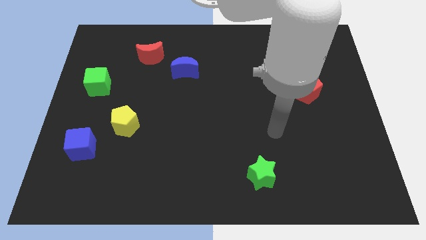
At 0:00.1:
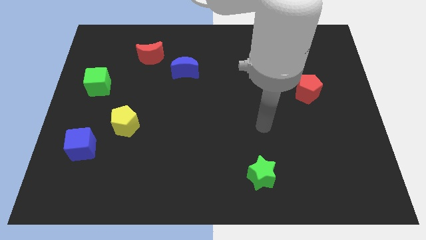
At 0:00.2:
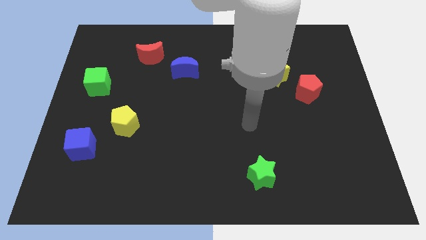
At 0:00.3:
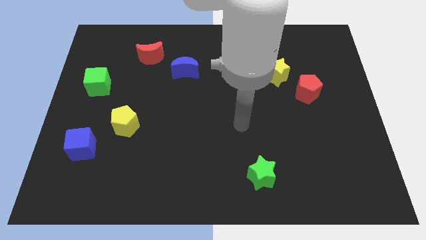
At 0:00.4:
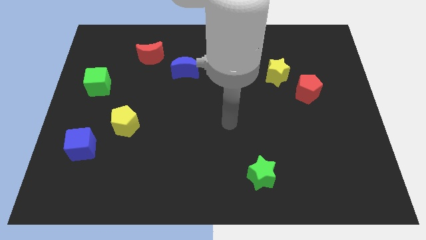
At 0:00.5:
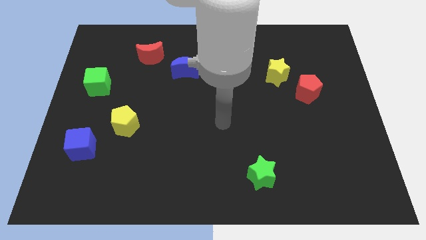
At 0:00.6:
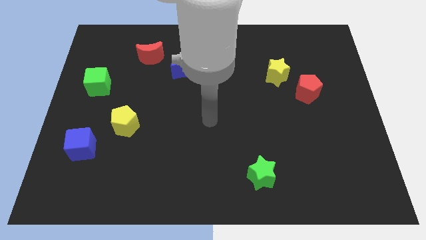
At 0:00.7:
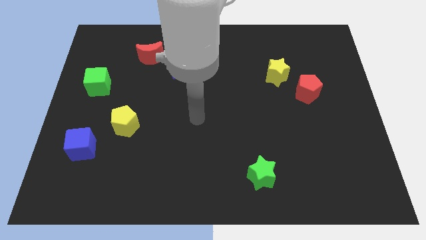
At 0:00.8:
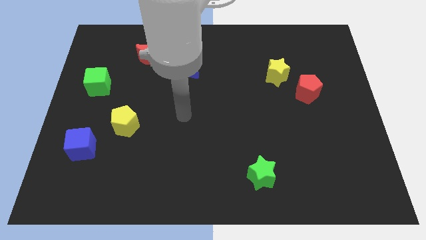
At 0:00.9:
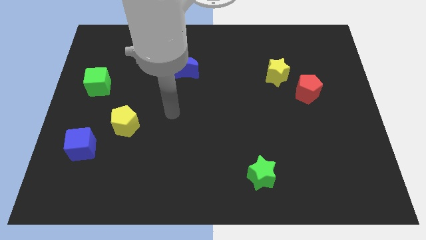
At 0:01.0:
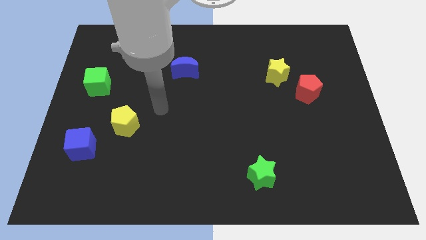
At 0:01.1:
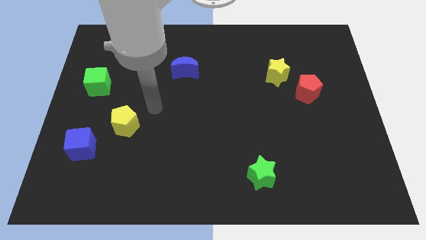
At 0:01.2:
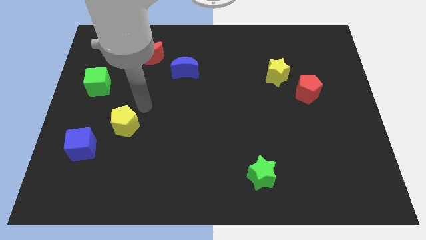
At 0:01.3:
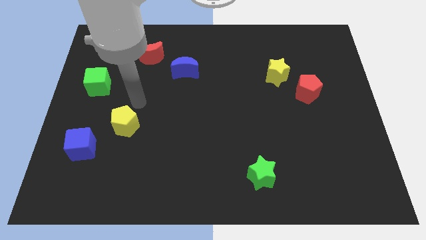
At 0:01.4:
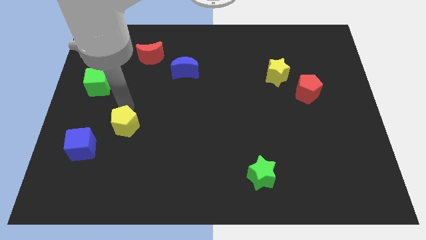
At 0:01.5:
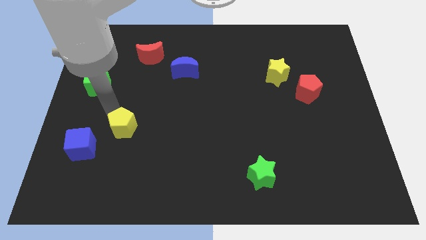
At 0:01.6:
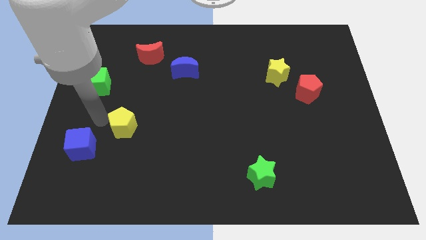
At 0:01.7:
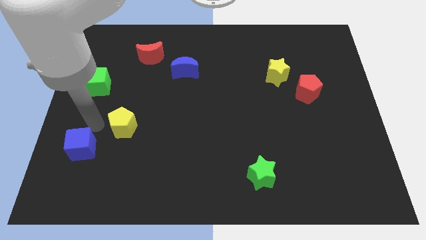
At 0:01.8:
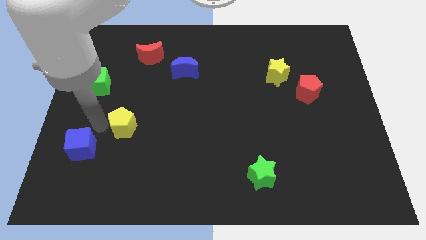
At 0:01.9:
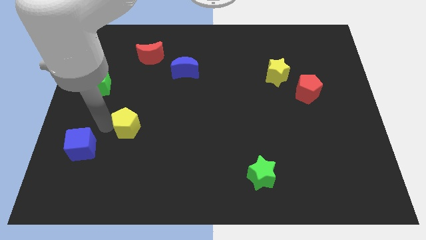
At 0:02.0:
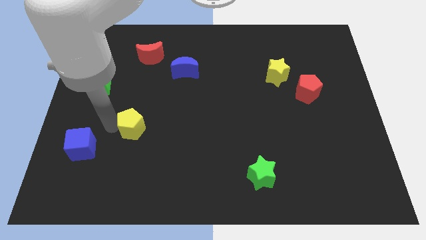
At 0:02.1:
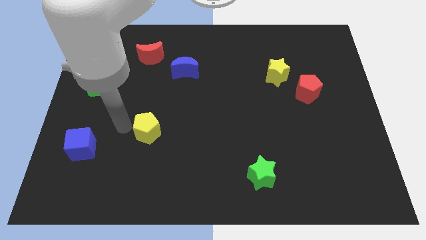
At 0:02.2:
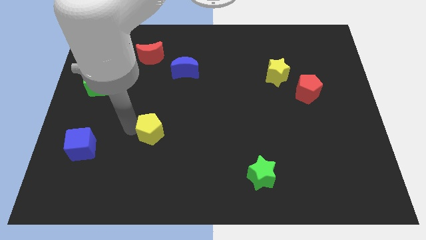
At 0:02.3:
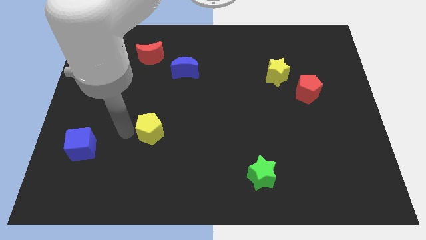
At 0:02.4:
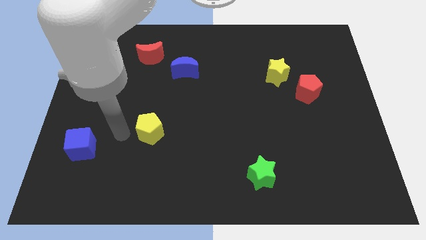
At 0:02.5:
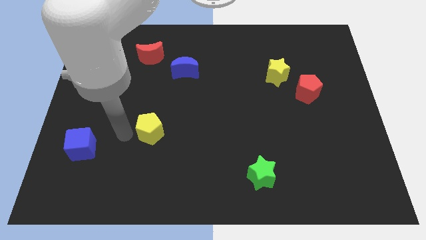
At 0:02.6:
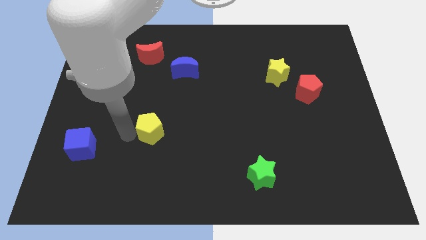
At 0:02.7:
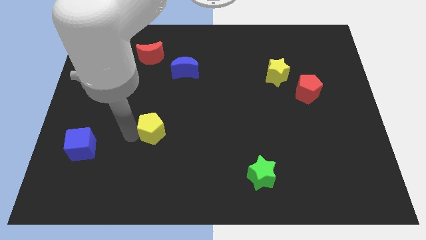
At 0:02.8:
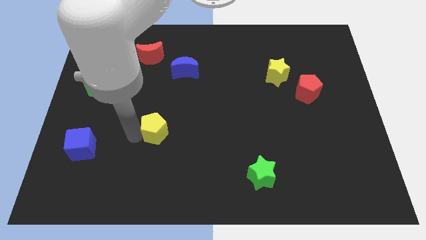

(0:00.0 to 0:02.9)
slide the yellow pentagon right a bit

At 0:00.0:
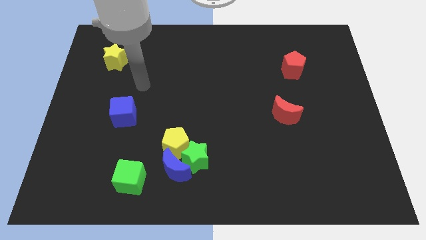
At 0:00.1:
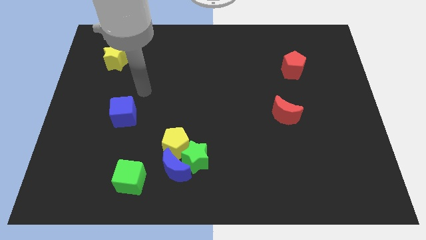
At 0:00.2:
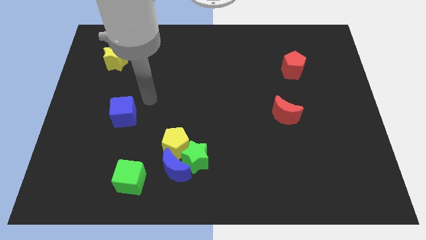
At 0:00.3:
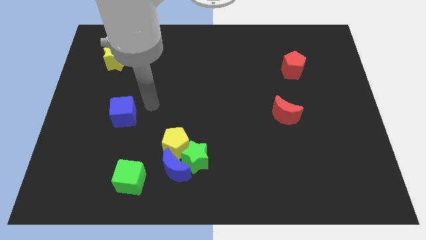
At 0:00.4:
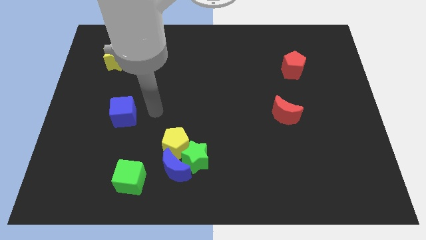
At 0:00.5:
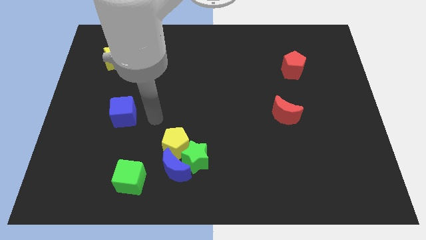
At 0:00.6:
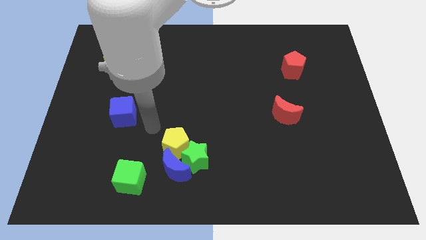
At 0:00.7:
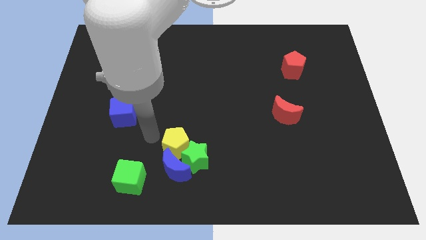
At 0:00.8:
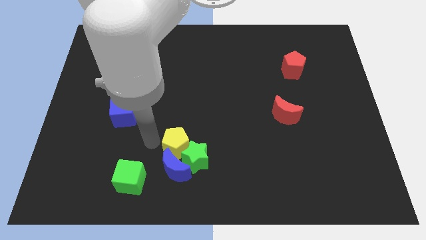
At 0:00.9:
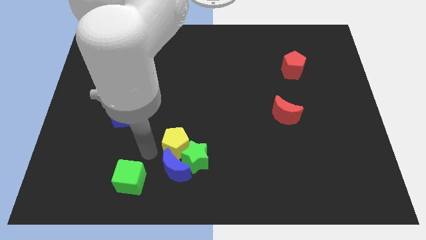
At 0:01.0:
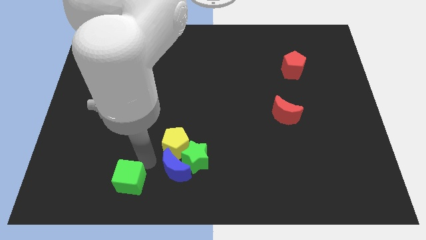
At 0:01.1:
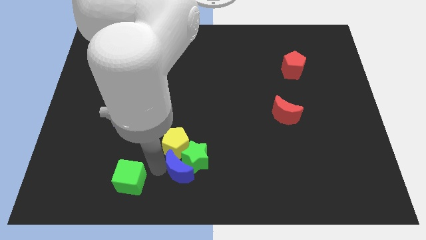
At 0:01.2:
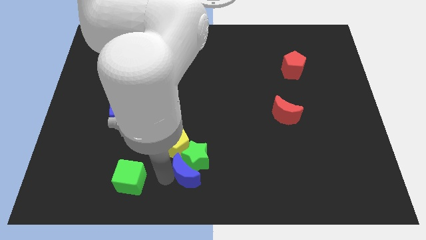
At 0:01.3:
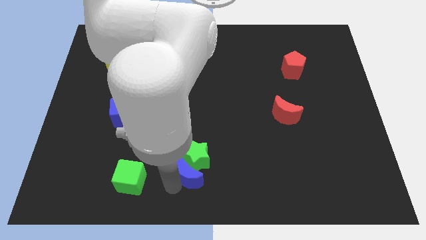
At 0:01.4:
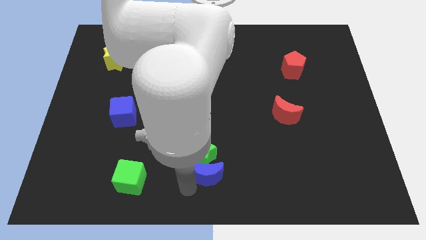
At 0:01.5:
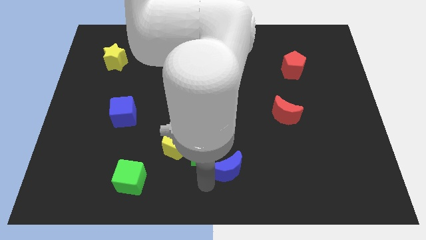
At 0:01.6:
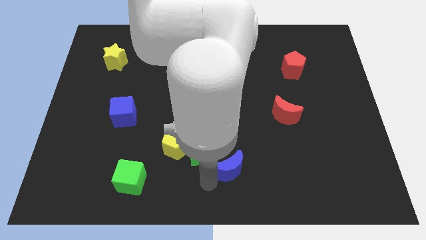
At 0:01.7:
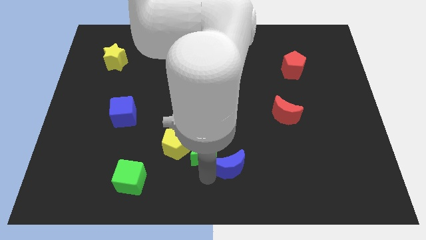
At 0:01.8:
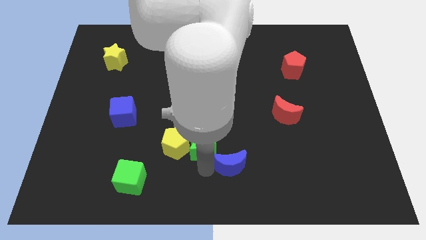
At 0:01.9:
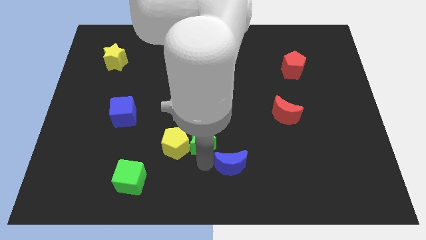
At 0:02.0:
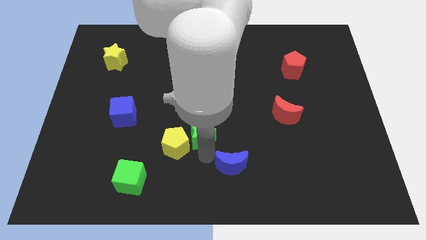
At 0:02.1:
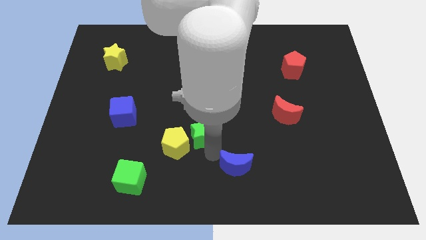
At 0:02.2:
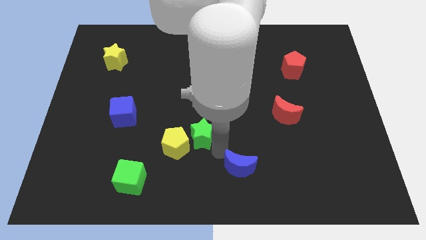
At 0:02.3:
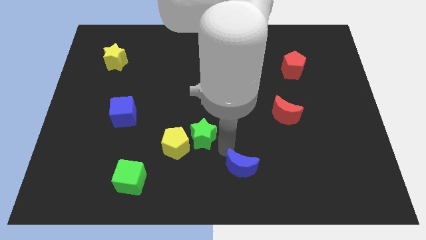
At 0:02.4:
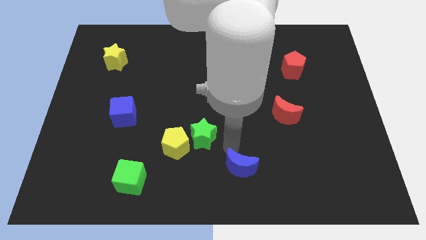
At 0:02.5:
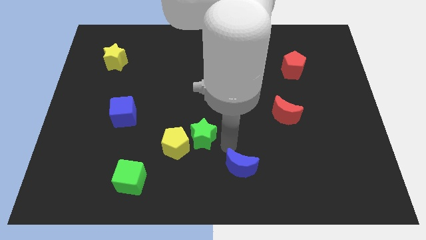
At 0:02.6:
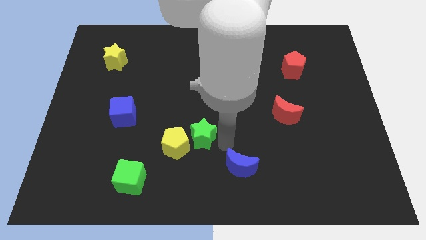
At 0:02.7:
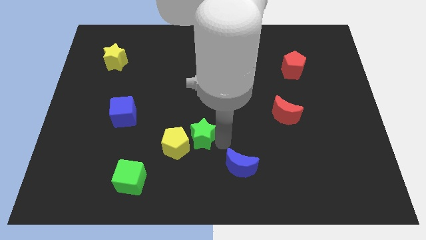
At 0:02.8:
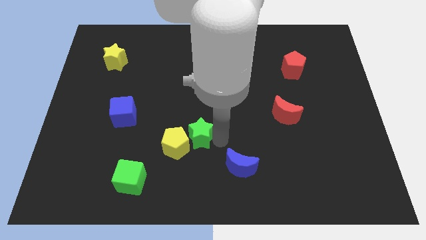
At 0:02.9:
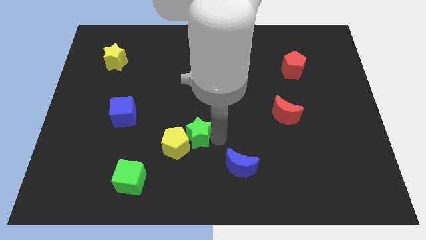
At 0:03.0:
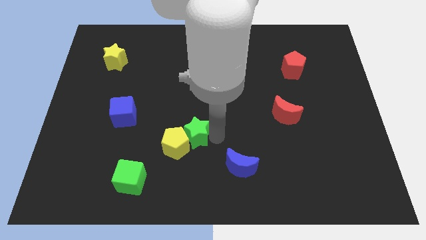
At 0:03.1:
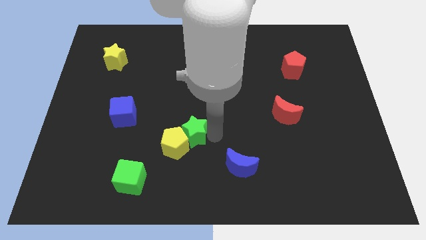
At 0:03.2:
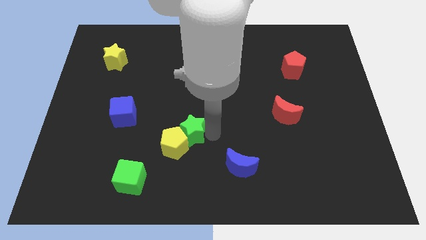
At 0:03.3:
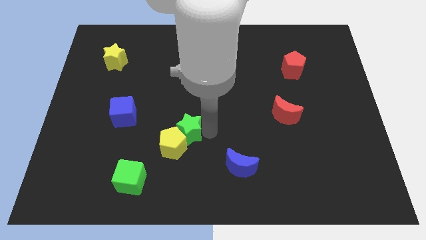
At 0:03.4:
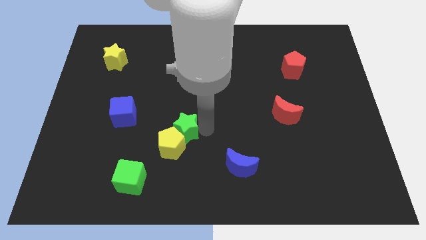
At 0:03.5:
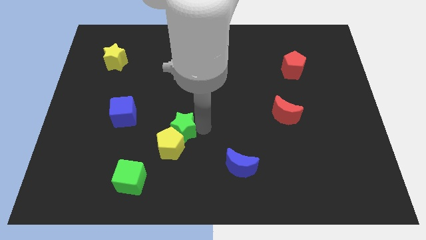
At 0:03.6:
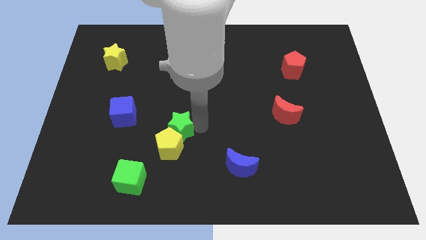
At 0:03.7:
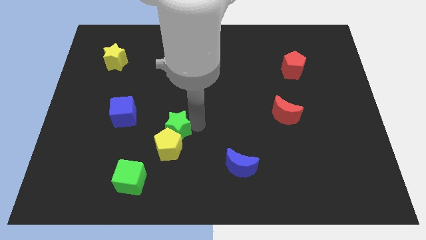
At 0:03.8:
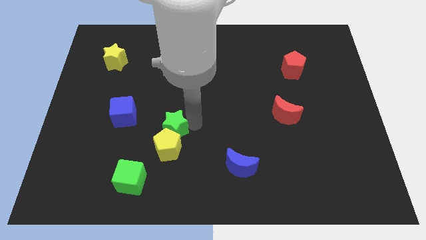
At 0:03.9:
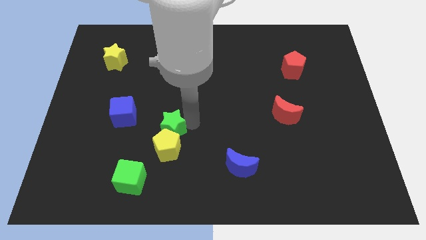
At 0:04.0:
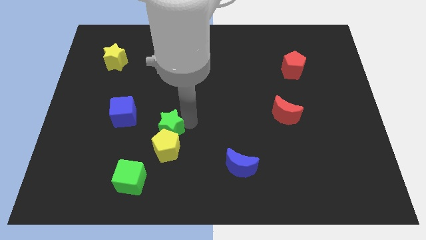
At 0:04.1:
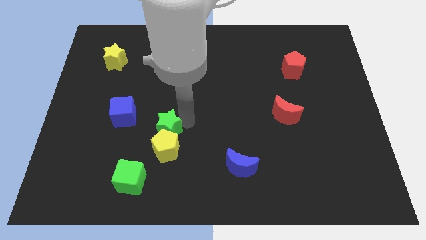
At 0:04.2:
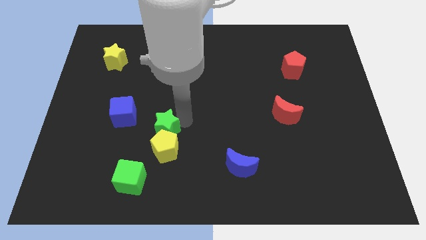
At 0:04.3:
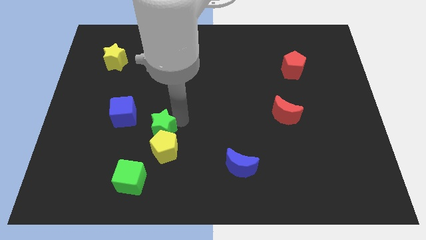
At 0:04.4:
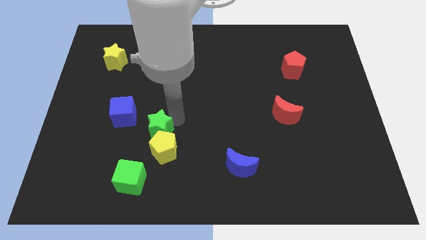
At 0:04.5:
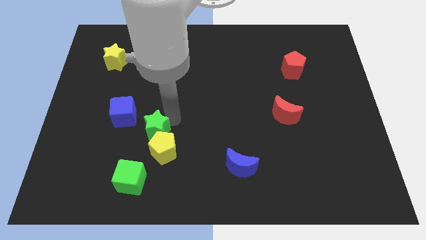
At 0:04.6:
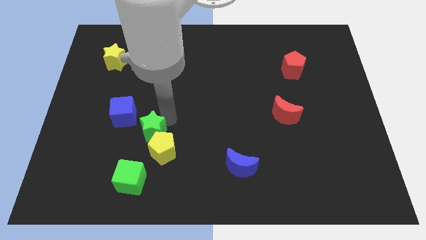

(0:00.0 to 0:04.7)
slide the green star a bit left

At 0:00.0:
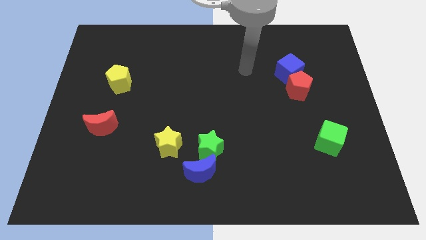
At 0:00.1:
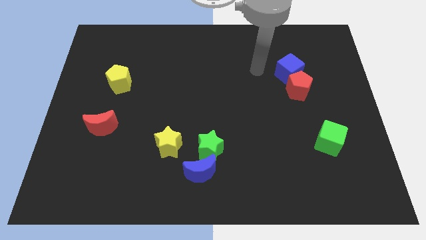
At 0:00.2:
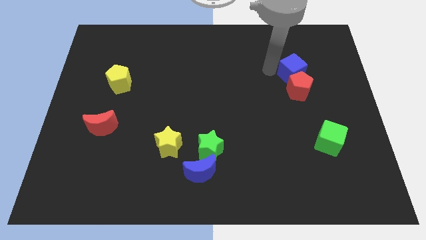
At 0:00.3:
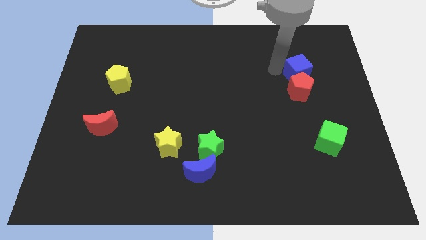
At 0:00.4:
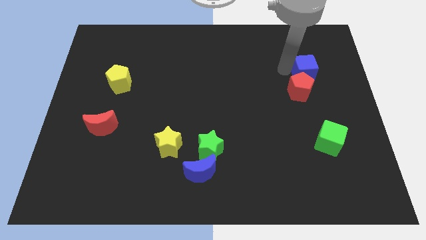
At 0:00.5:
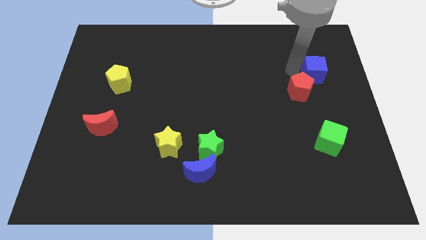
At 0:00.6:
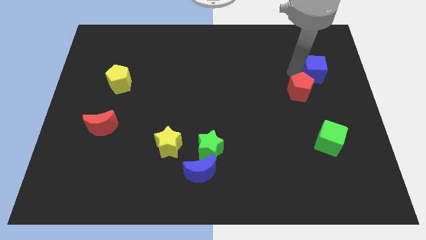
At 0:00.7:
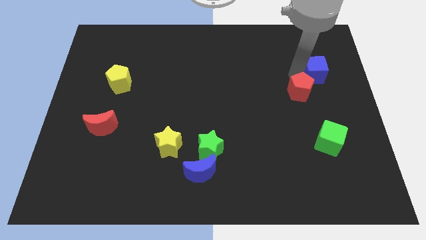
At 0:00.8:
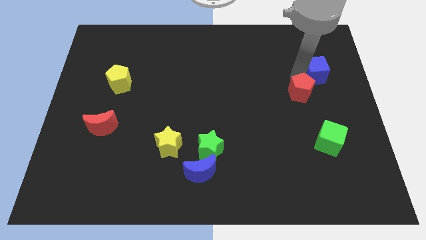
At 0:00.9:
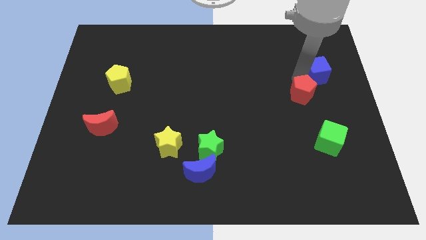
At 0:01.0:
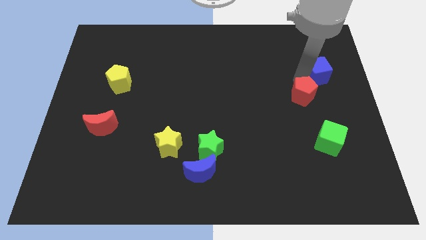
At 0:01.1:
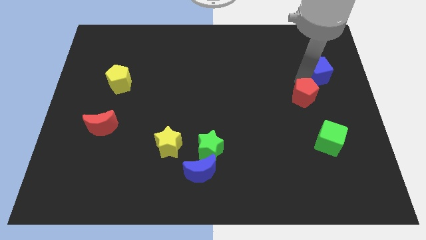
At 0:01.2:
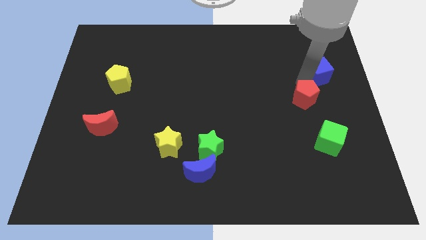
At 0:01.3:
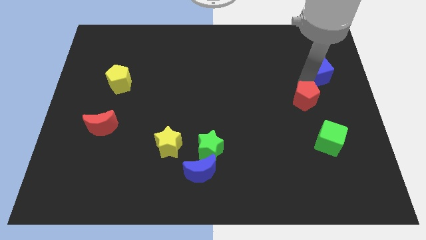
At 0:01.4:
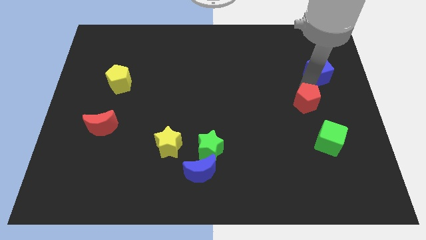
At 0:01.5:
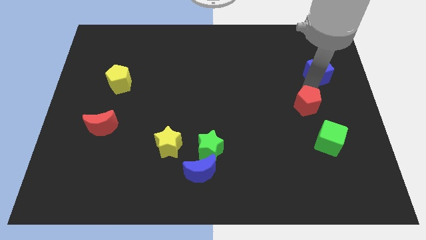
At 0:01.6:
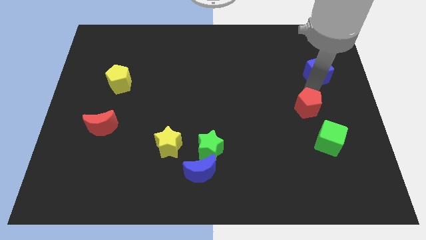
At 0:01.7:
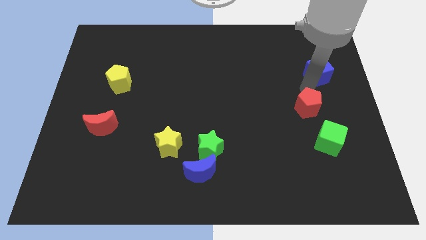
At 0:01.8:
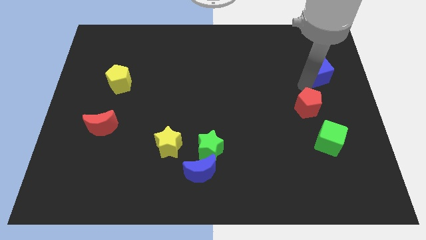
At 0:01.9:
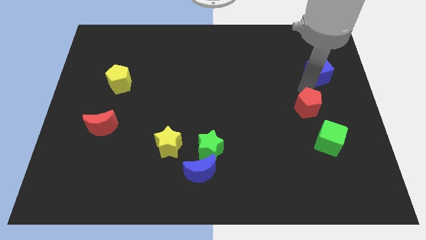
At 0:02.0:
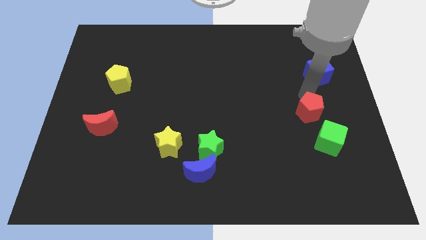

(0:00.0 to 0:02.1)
slide the red pentagon downwards somewhat
